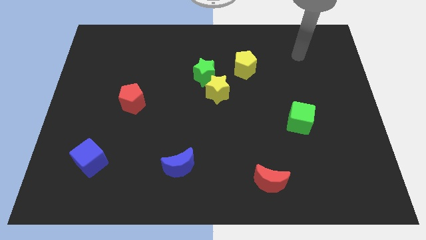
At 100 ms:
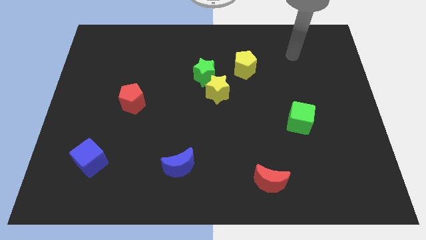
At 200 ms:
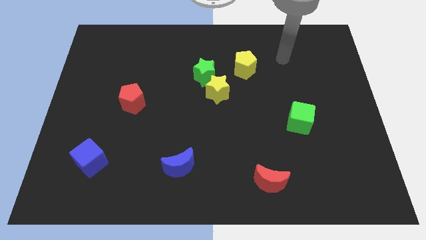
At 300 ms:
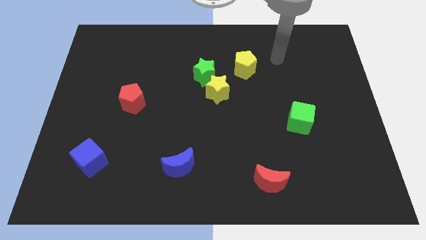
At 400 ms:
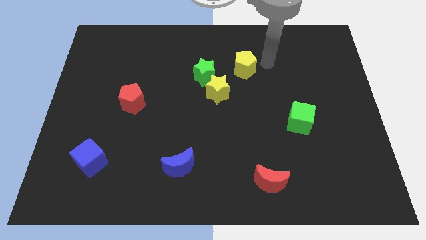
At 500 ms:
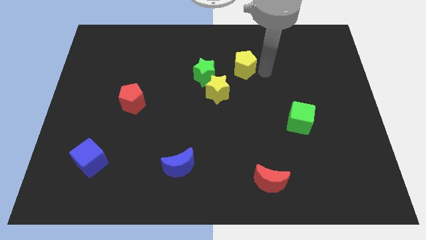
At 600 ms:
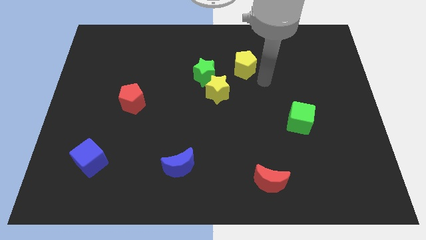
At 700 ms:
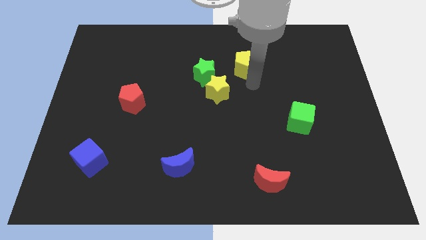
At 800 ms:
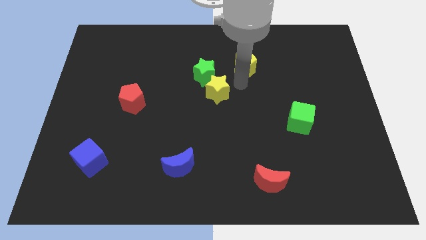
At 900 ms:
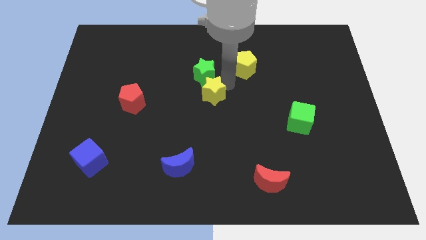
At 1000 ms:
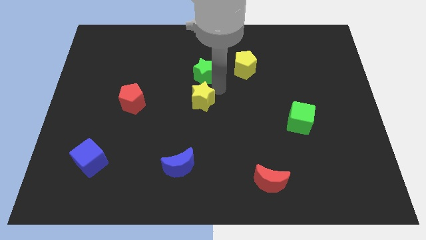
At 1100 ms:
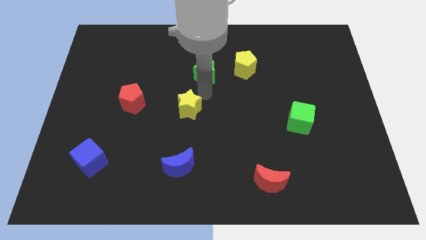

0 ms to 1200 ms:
pull the green star apart from the yellow star

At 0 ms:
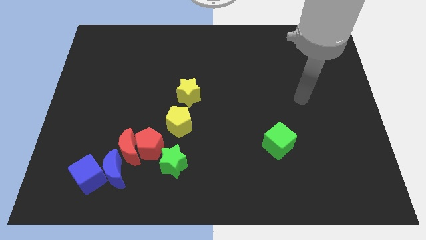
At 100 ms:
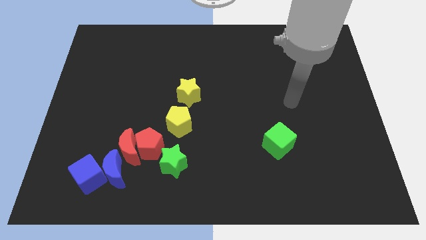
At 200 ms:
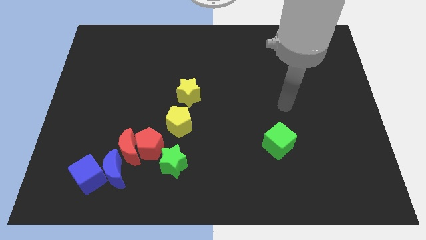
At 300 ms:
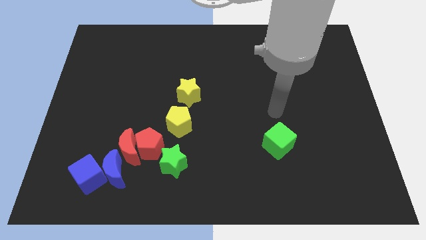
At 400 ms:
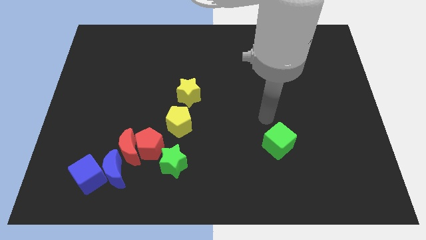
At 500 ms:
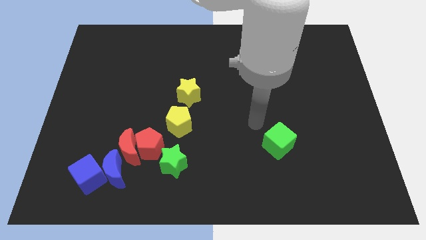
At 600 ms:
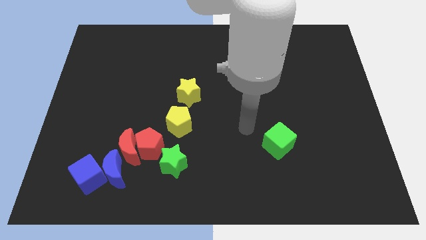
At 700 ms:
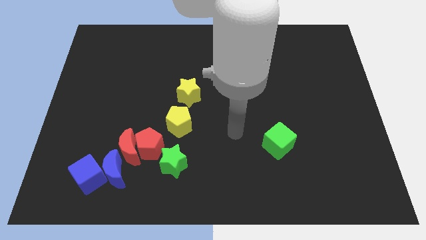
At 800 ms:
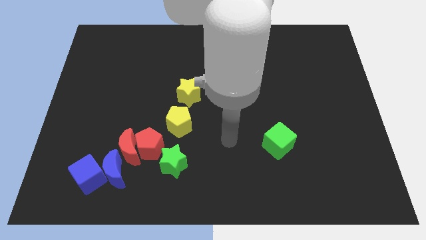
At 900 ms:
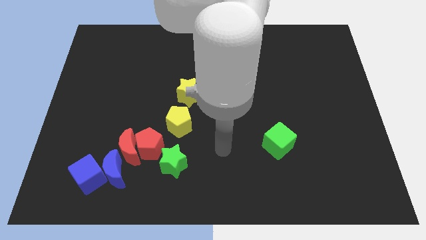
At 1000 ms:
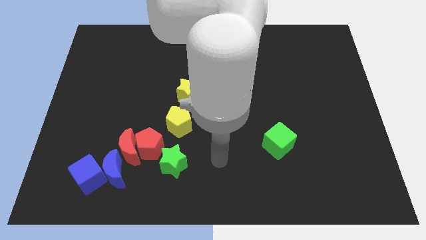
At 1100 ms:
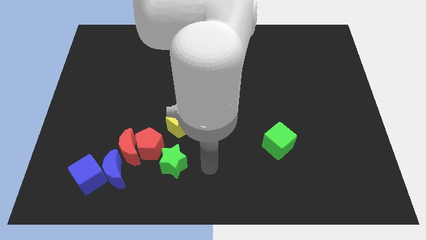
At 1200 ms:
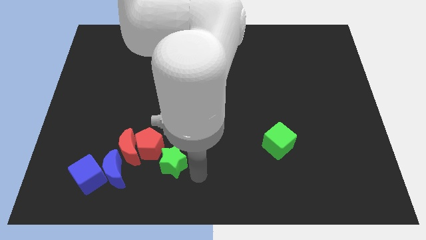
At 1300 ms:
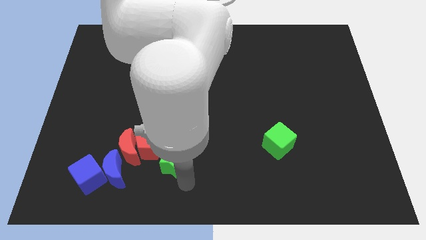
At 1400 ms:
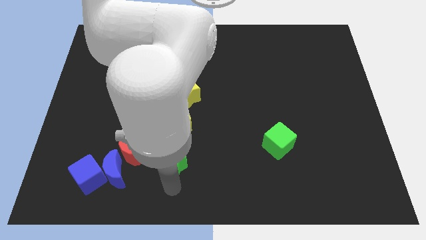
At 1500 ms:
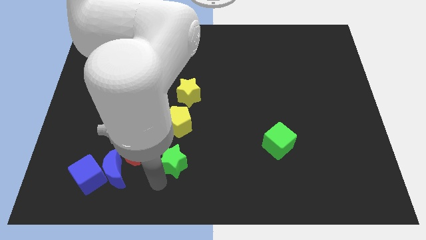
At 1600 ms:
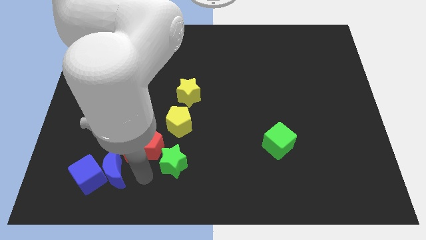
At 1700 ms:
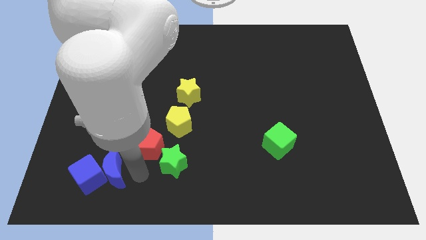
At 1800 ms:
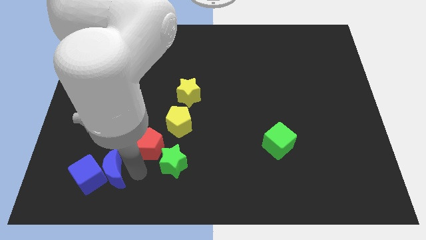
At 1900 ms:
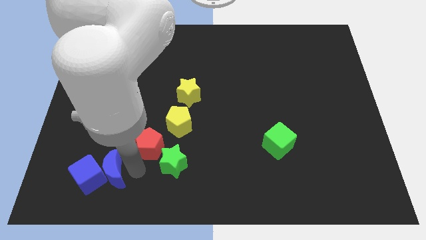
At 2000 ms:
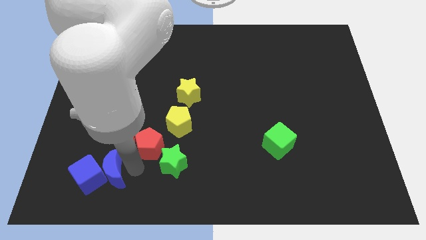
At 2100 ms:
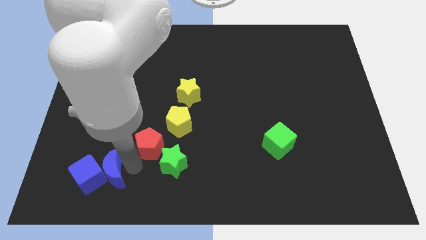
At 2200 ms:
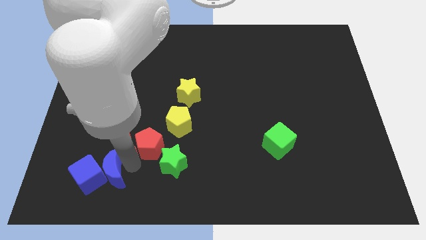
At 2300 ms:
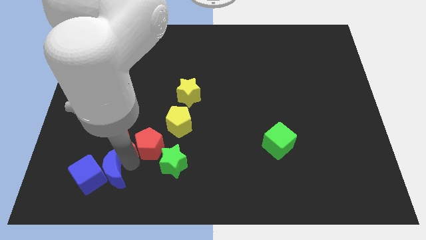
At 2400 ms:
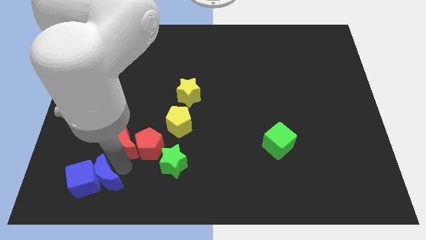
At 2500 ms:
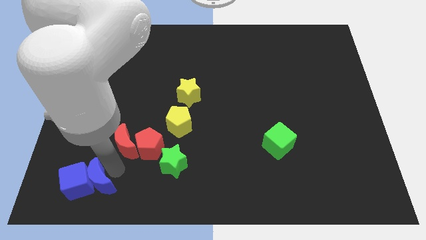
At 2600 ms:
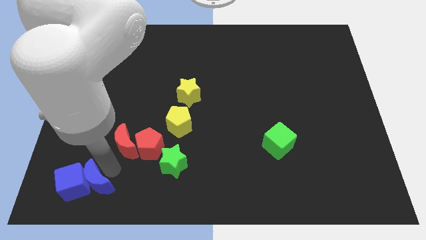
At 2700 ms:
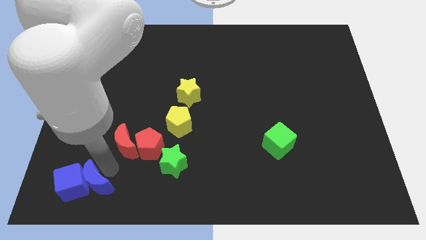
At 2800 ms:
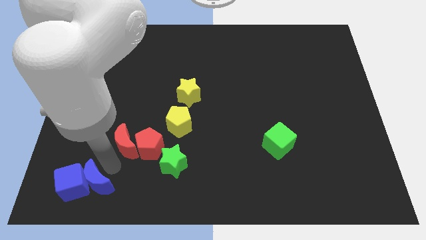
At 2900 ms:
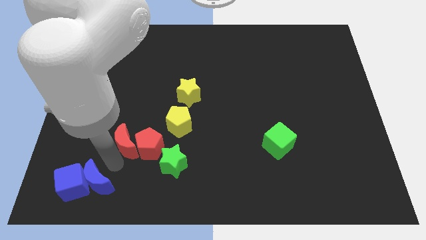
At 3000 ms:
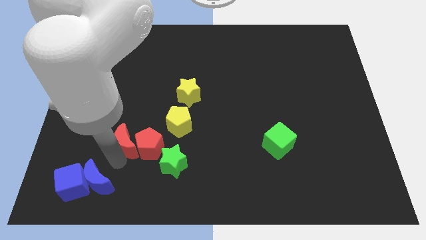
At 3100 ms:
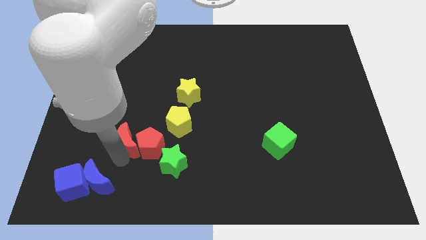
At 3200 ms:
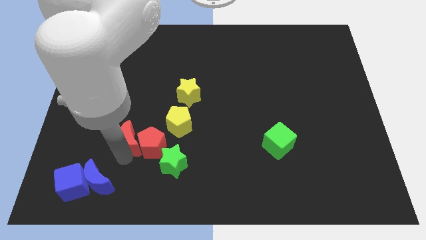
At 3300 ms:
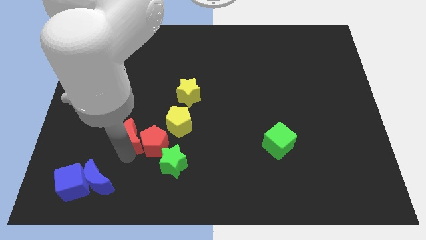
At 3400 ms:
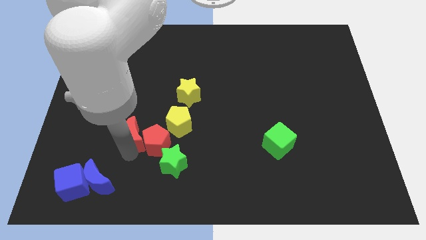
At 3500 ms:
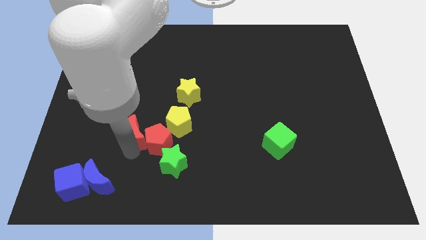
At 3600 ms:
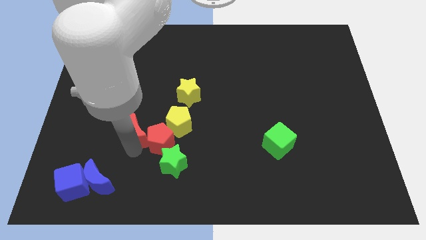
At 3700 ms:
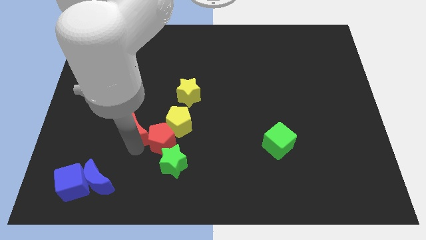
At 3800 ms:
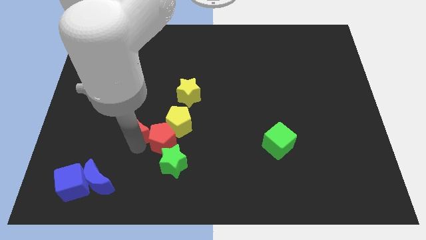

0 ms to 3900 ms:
separate the red moon from the red pentagon, blue moon, and blue cube

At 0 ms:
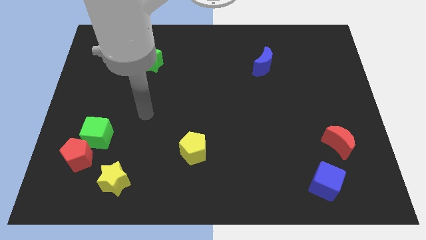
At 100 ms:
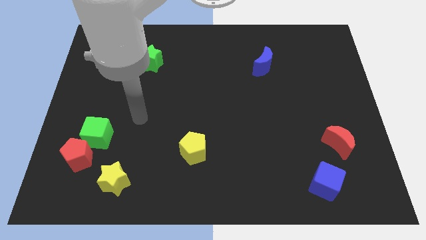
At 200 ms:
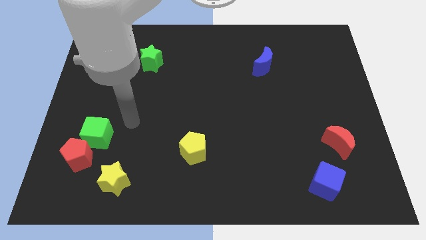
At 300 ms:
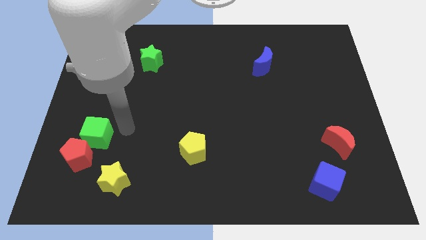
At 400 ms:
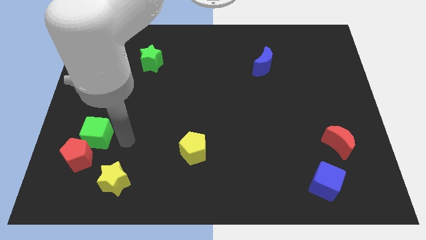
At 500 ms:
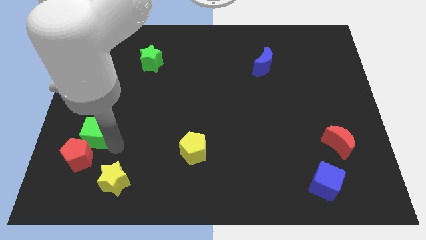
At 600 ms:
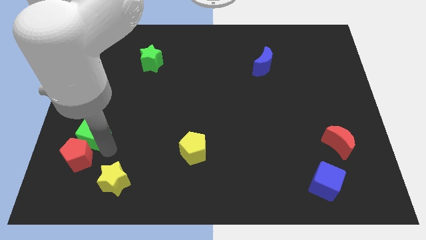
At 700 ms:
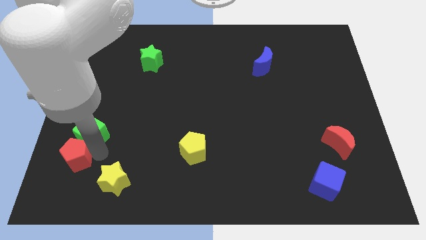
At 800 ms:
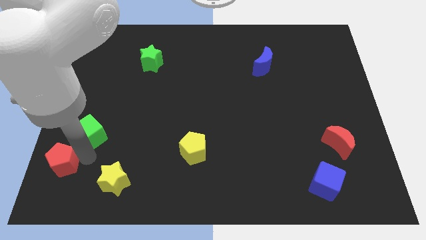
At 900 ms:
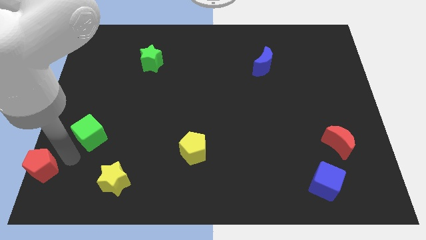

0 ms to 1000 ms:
pull the green cube apart from the red pentagon

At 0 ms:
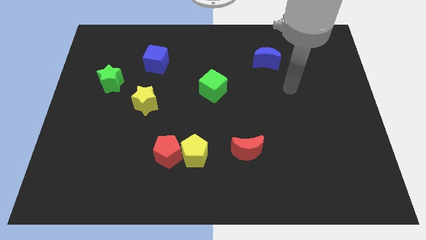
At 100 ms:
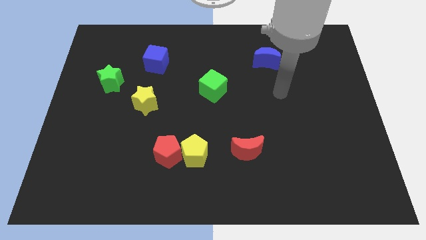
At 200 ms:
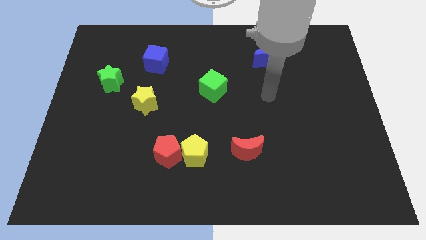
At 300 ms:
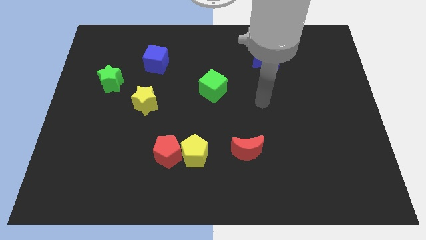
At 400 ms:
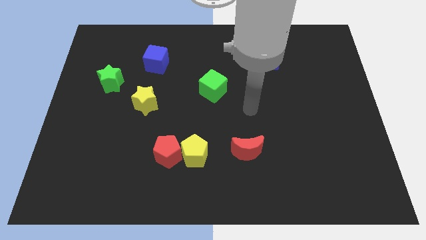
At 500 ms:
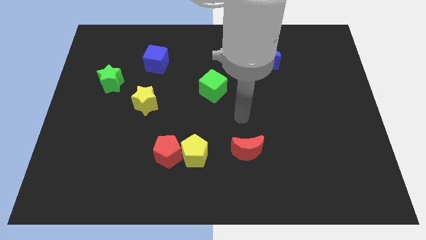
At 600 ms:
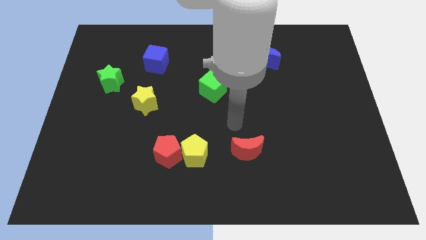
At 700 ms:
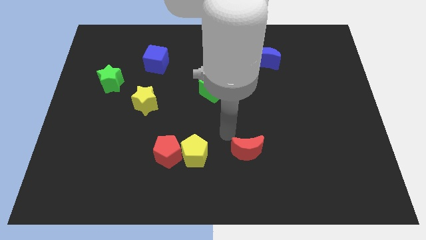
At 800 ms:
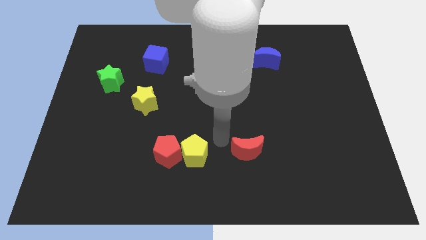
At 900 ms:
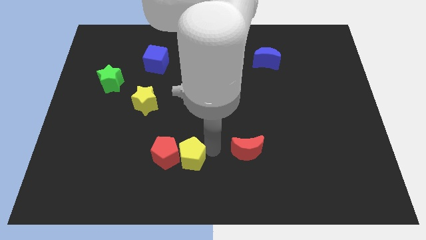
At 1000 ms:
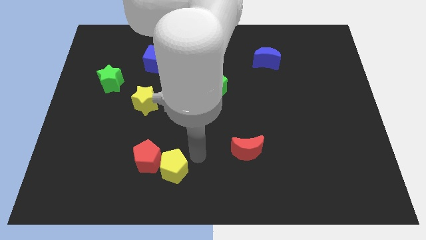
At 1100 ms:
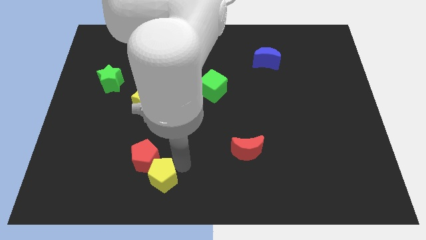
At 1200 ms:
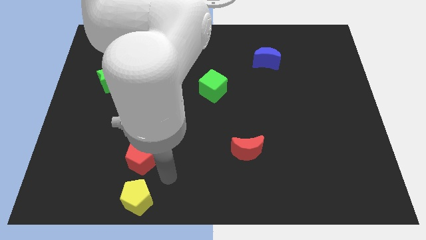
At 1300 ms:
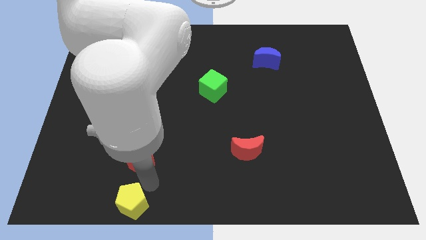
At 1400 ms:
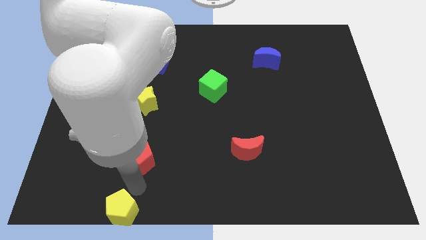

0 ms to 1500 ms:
move the red pentagon away from the yellow pentagon

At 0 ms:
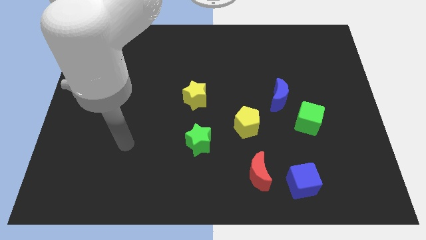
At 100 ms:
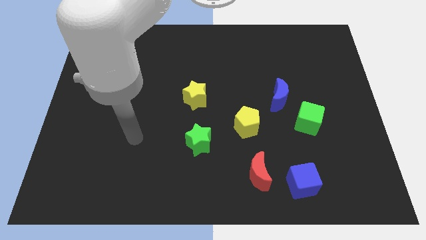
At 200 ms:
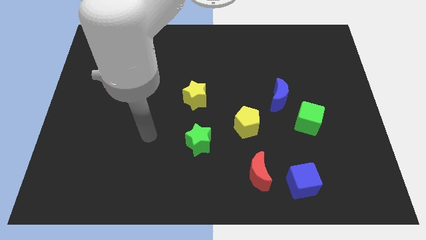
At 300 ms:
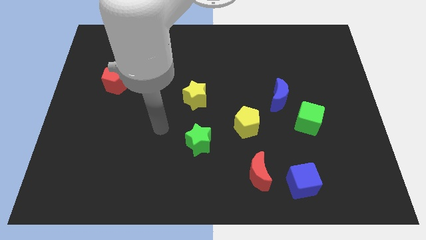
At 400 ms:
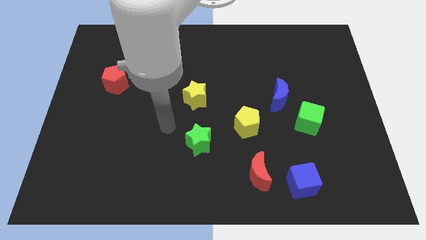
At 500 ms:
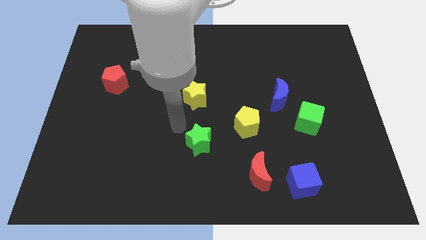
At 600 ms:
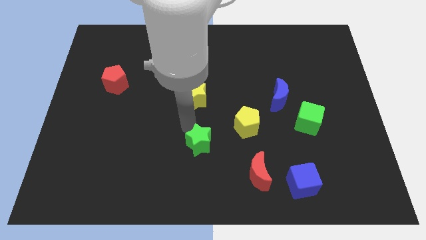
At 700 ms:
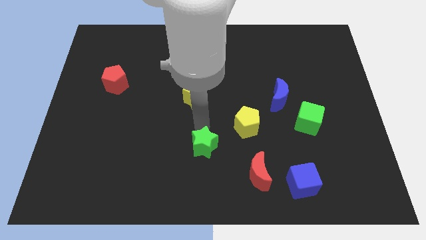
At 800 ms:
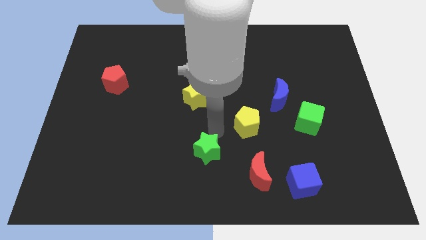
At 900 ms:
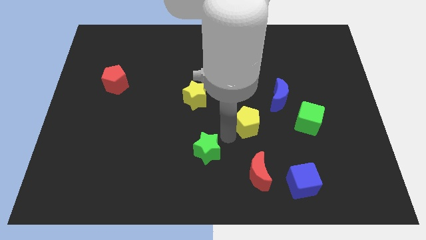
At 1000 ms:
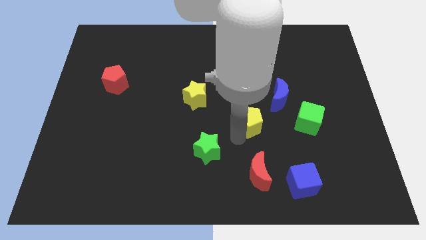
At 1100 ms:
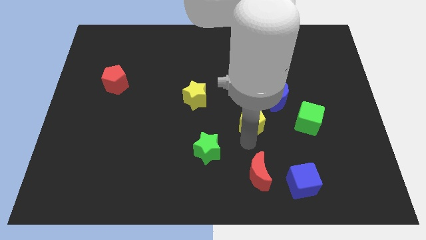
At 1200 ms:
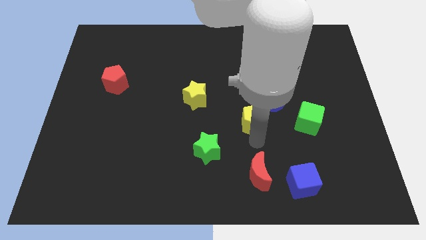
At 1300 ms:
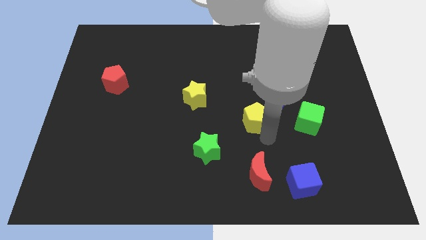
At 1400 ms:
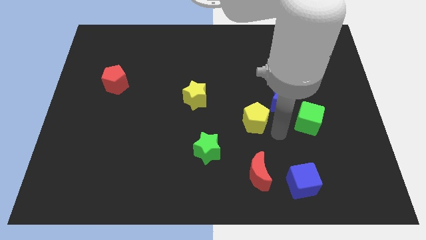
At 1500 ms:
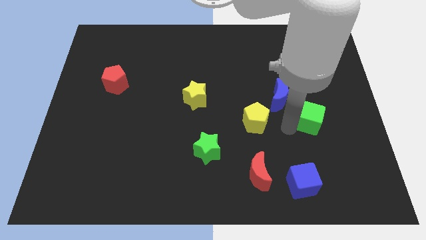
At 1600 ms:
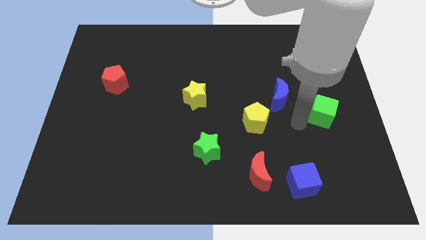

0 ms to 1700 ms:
separate the blue moon from the green cube
